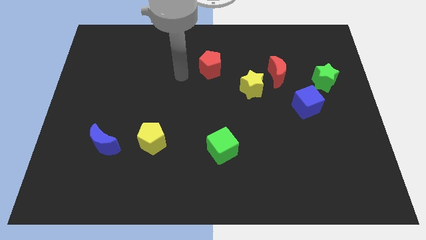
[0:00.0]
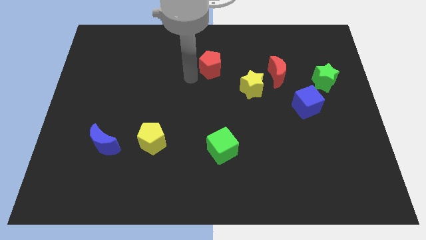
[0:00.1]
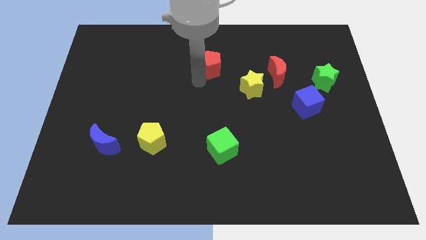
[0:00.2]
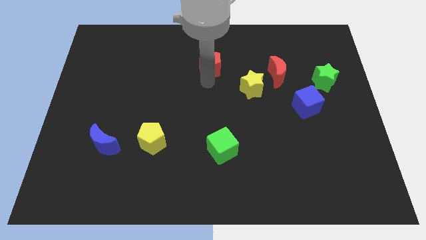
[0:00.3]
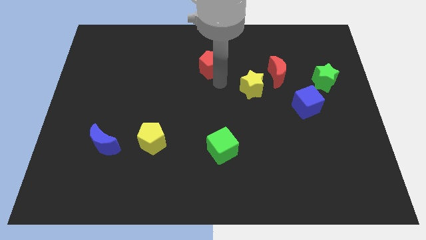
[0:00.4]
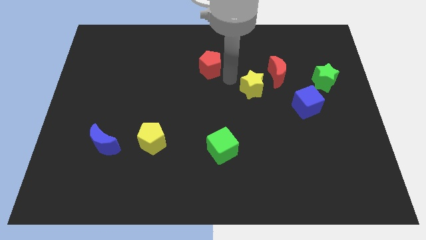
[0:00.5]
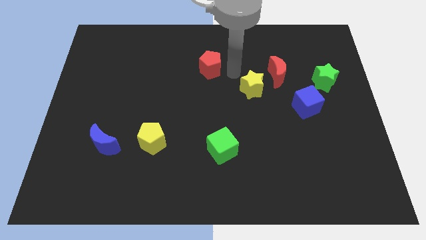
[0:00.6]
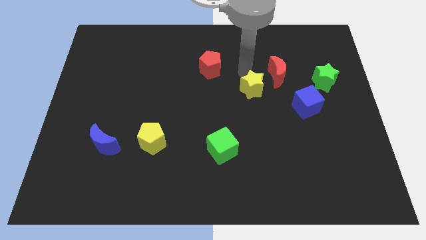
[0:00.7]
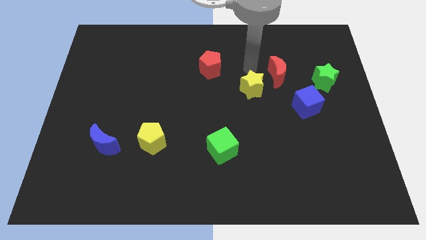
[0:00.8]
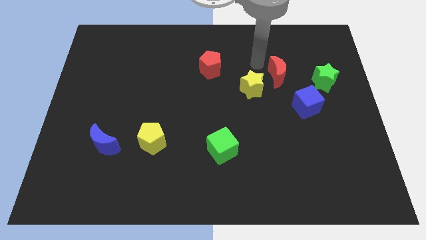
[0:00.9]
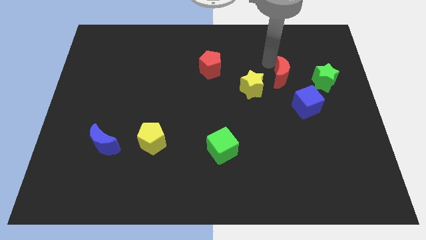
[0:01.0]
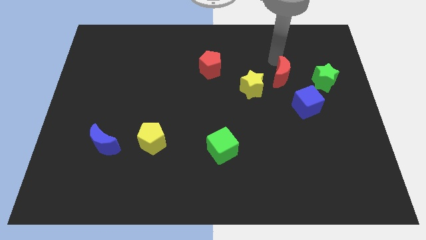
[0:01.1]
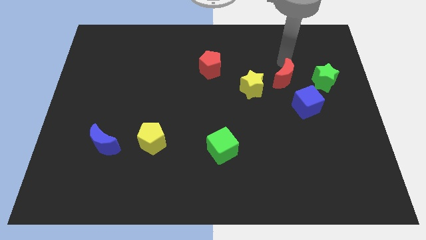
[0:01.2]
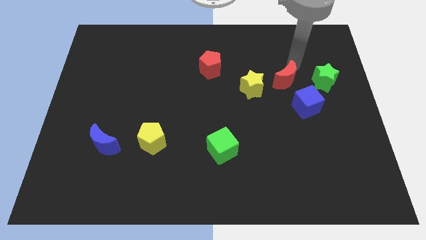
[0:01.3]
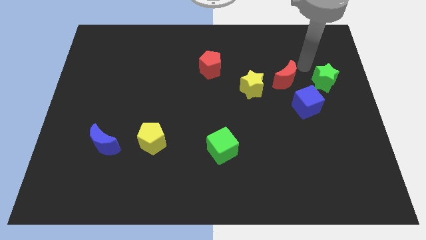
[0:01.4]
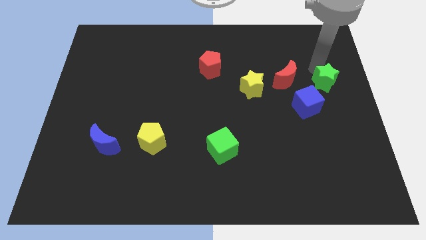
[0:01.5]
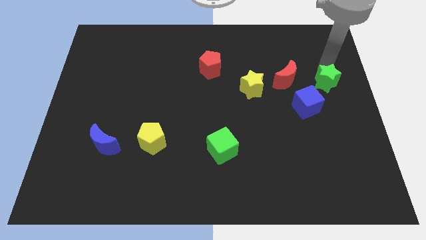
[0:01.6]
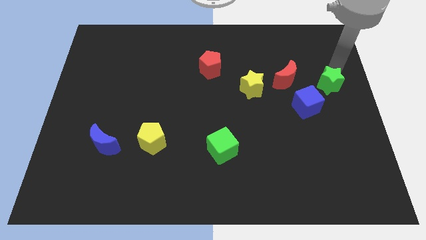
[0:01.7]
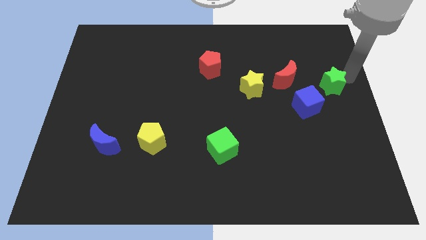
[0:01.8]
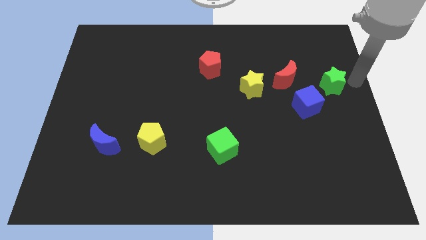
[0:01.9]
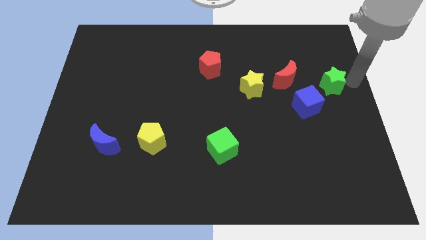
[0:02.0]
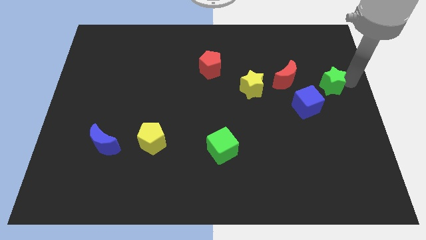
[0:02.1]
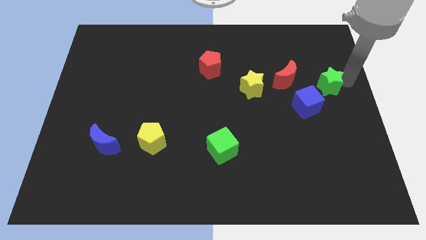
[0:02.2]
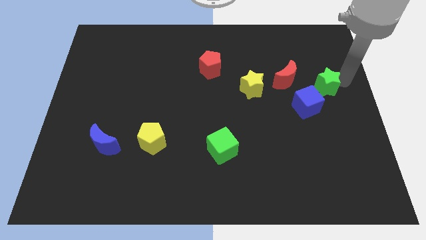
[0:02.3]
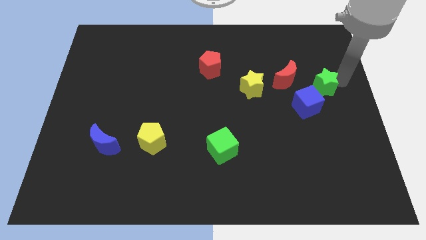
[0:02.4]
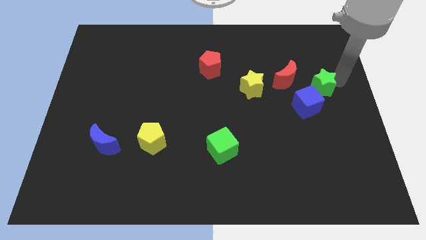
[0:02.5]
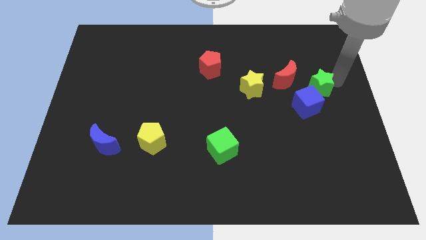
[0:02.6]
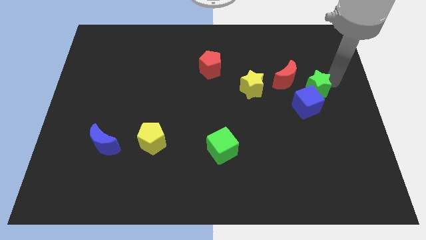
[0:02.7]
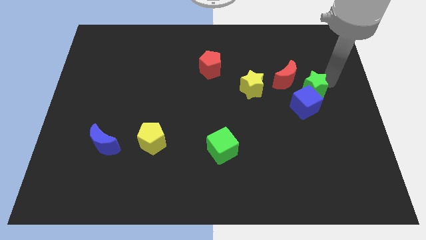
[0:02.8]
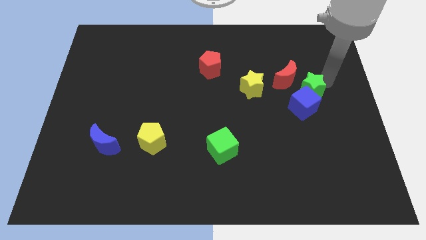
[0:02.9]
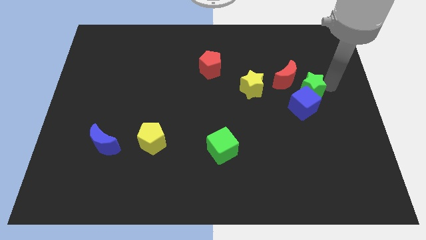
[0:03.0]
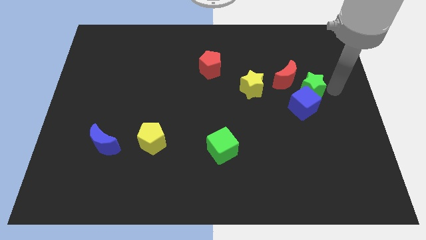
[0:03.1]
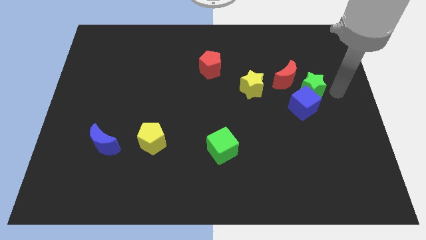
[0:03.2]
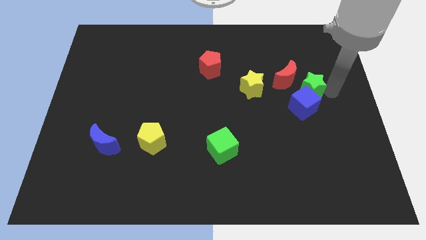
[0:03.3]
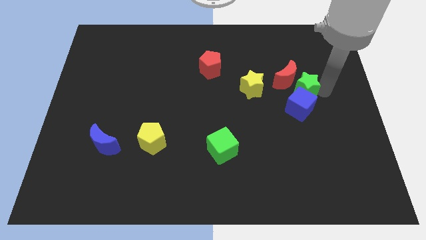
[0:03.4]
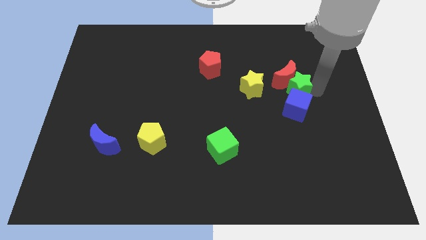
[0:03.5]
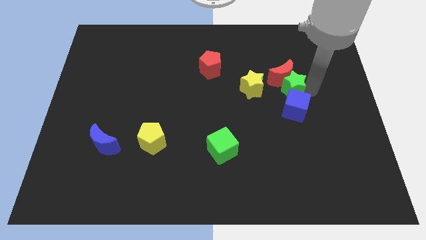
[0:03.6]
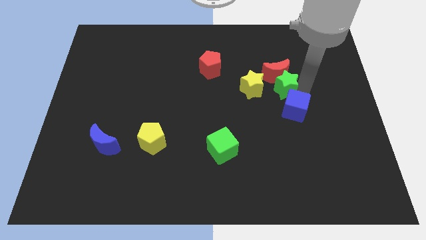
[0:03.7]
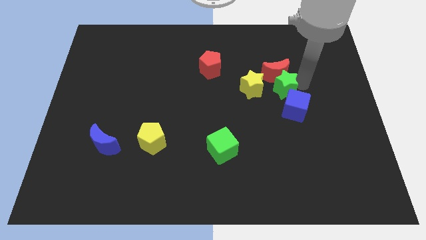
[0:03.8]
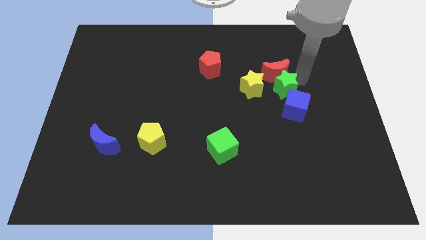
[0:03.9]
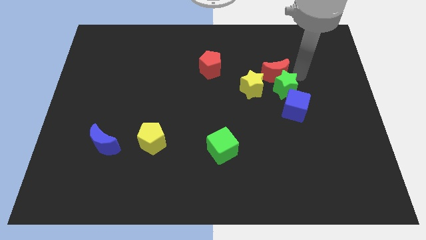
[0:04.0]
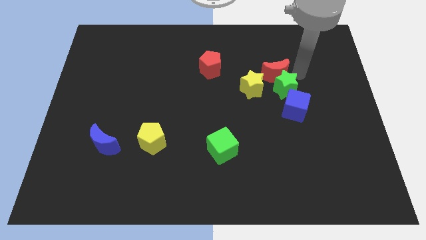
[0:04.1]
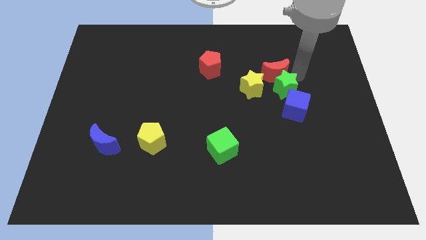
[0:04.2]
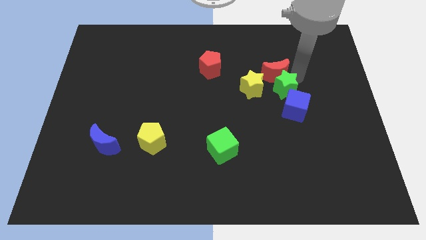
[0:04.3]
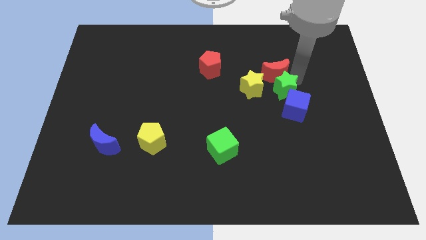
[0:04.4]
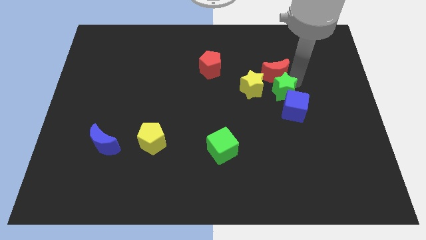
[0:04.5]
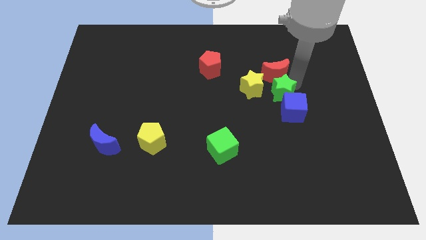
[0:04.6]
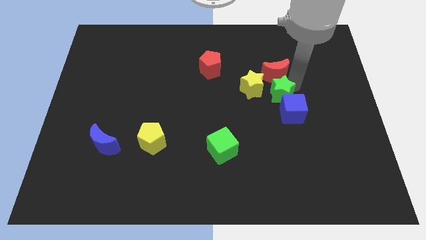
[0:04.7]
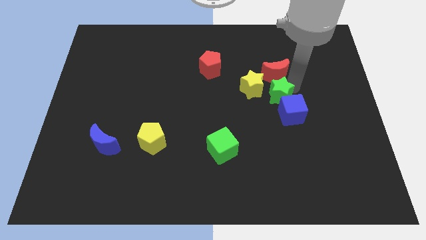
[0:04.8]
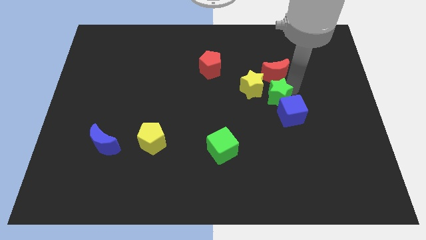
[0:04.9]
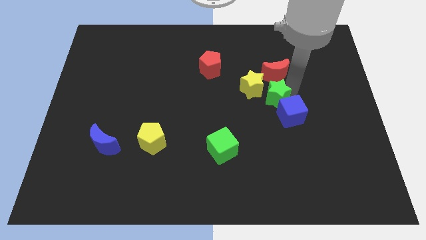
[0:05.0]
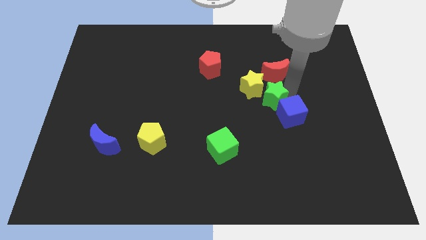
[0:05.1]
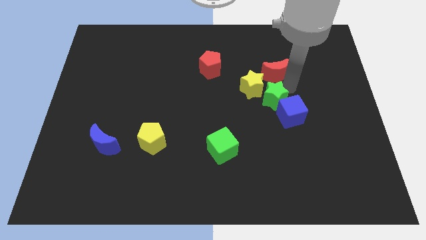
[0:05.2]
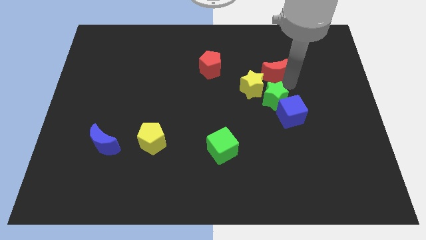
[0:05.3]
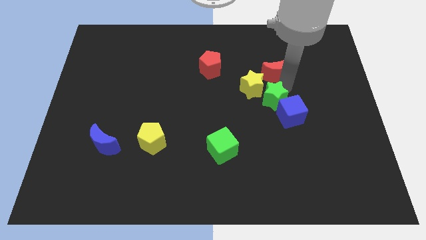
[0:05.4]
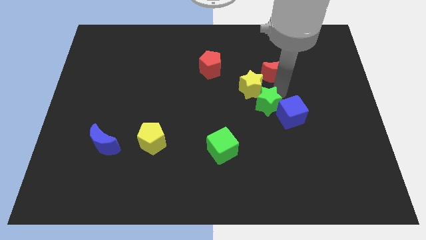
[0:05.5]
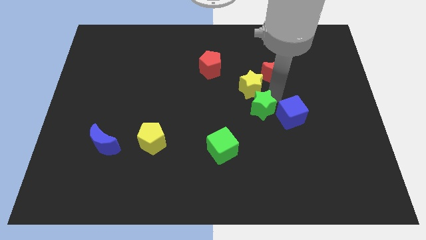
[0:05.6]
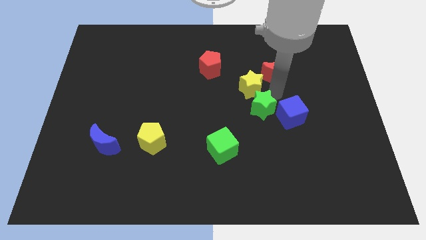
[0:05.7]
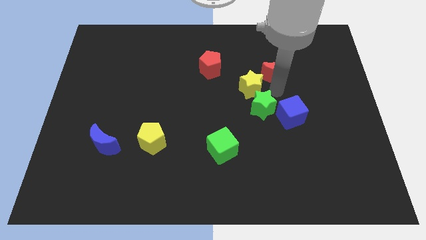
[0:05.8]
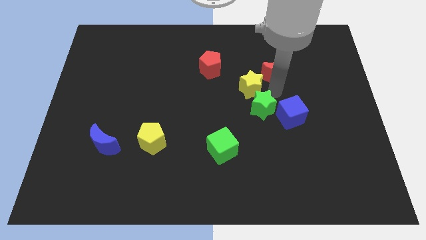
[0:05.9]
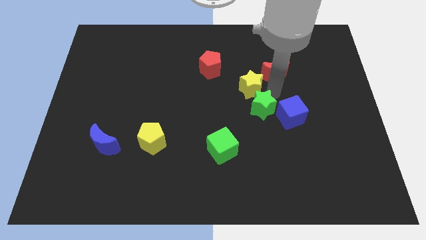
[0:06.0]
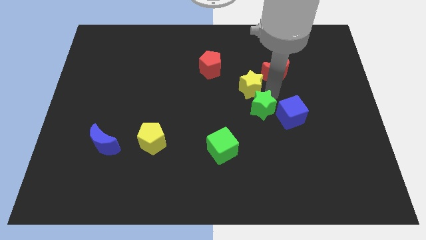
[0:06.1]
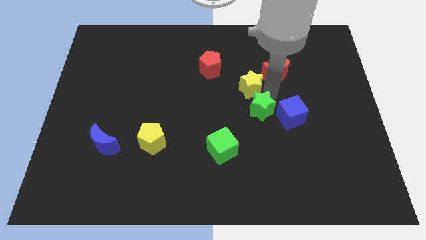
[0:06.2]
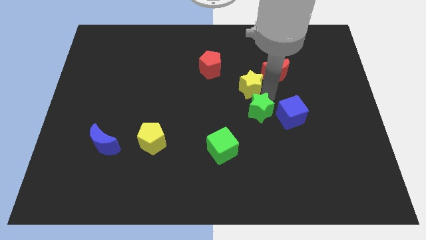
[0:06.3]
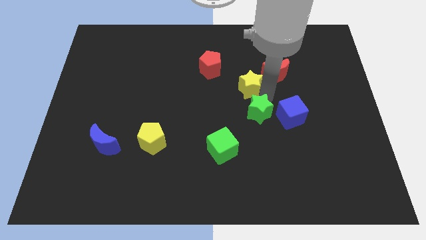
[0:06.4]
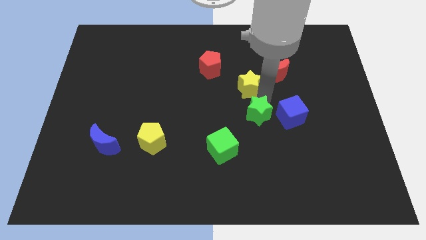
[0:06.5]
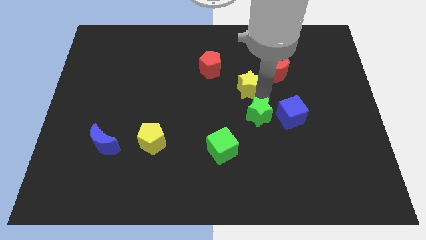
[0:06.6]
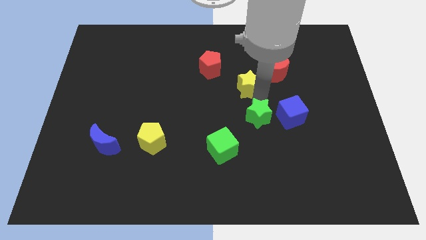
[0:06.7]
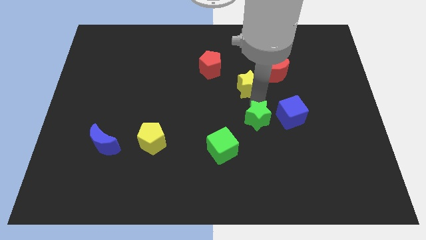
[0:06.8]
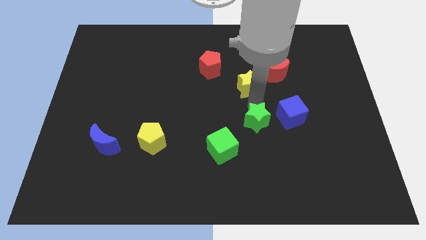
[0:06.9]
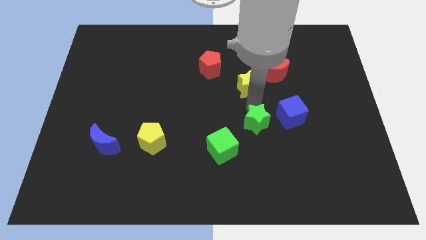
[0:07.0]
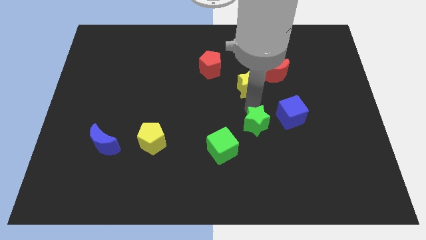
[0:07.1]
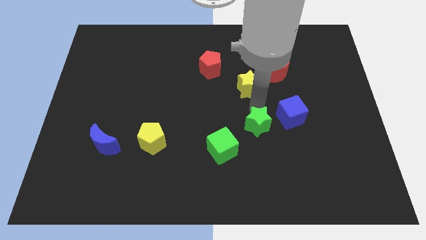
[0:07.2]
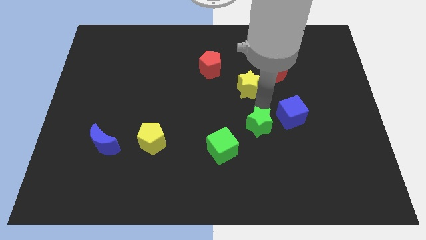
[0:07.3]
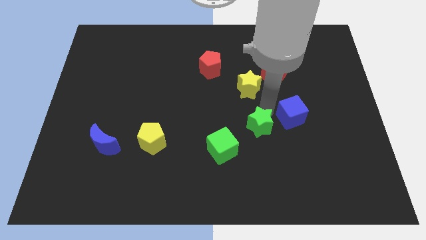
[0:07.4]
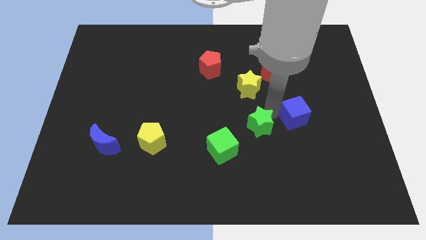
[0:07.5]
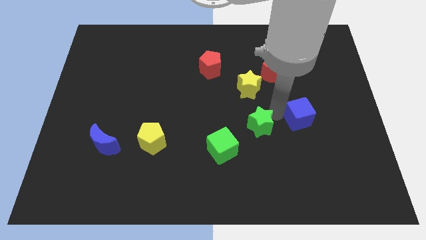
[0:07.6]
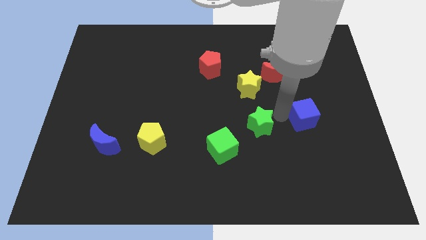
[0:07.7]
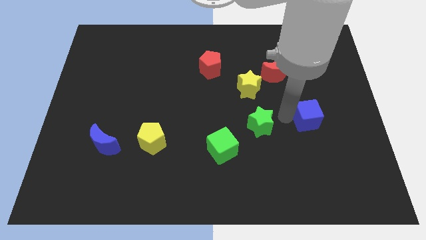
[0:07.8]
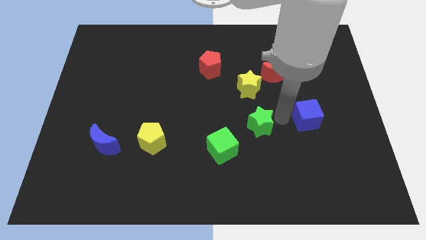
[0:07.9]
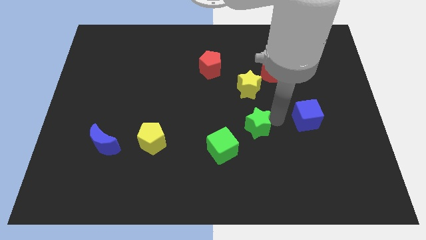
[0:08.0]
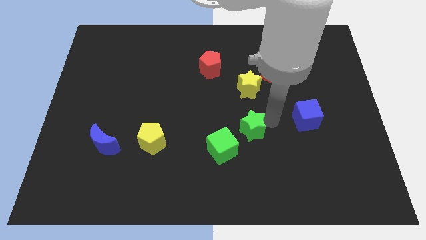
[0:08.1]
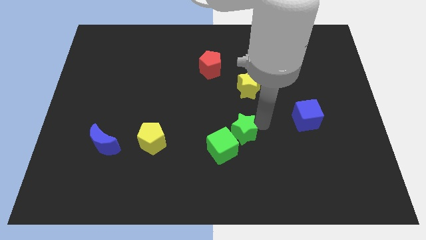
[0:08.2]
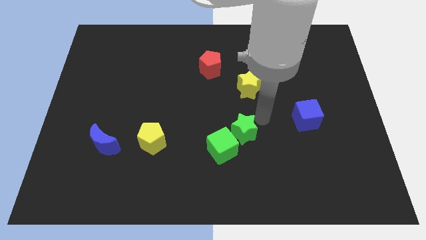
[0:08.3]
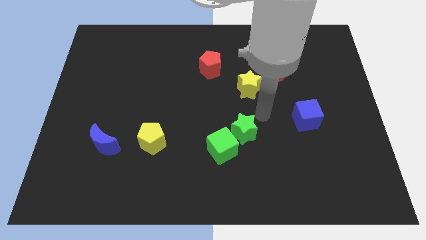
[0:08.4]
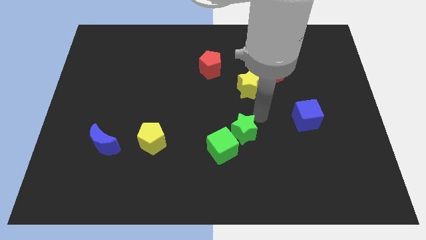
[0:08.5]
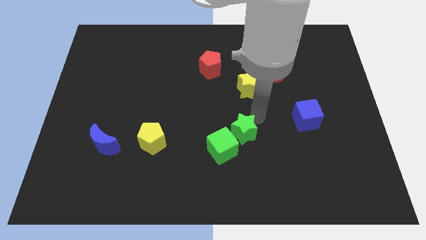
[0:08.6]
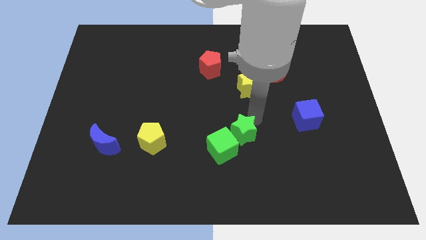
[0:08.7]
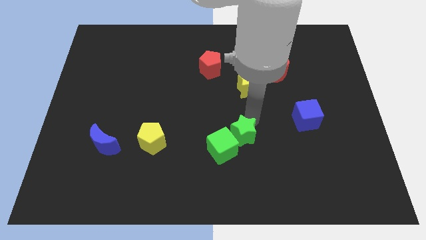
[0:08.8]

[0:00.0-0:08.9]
put the green star to the green cube
